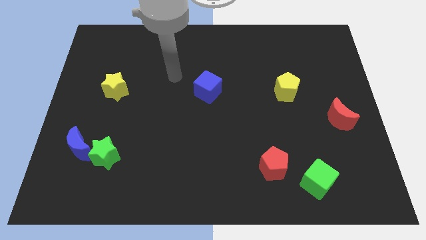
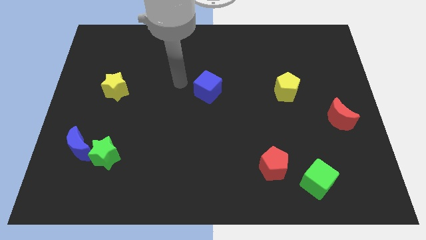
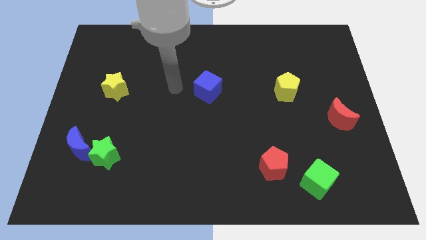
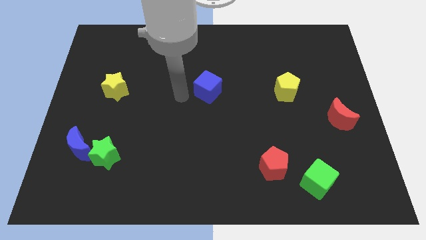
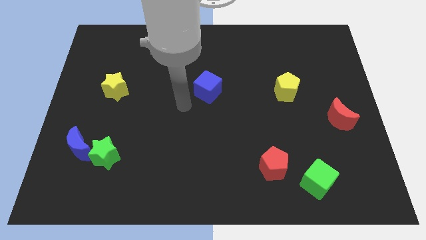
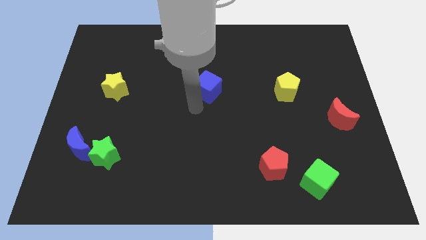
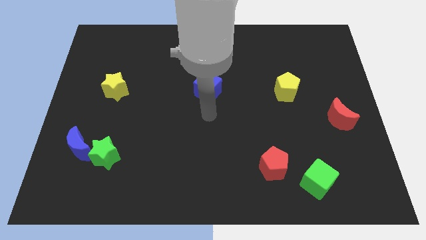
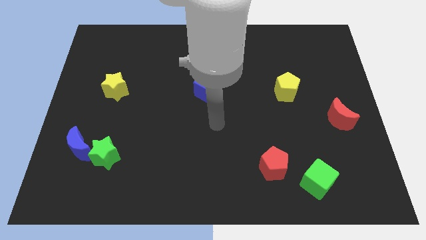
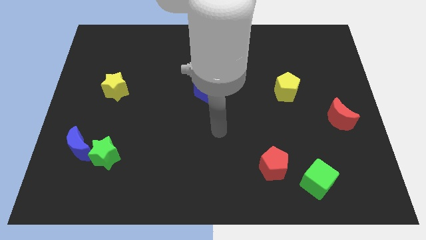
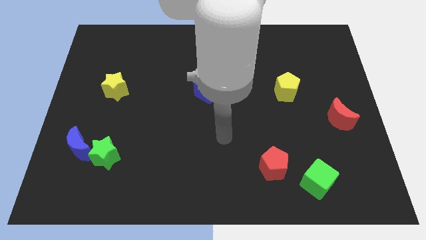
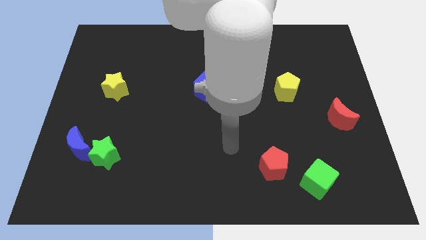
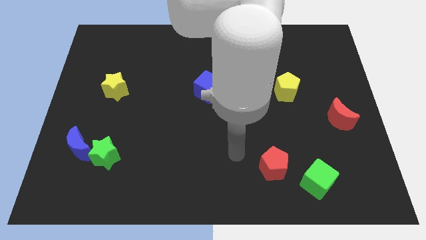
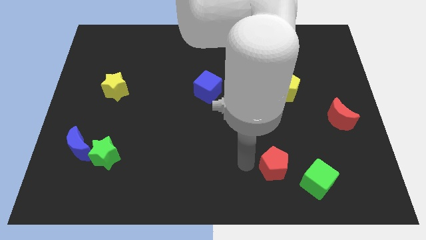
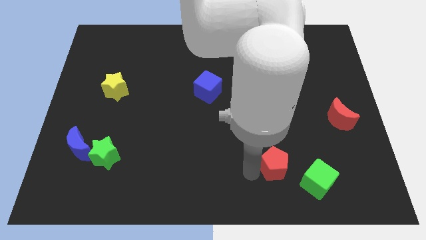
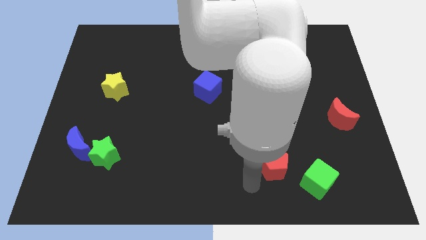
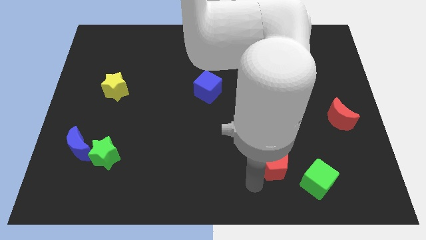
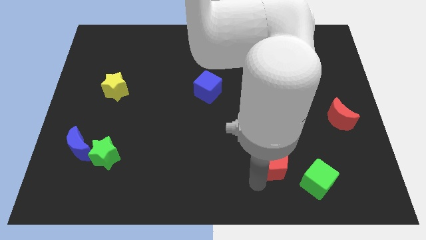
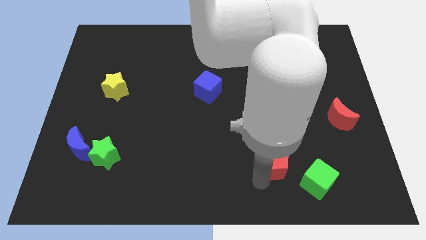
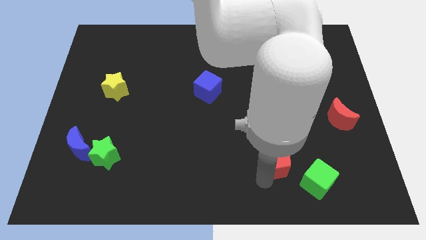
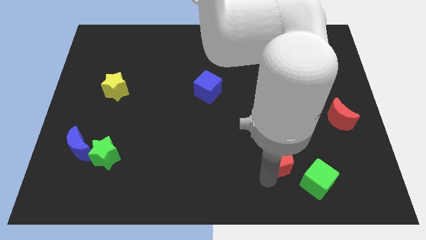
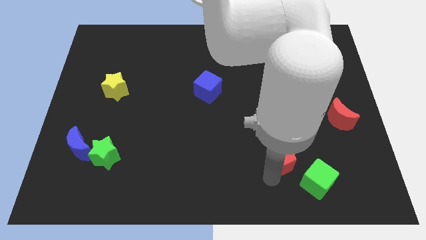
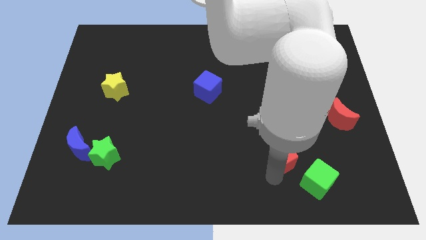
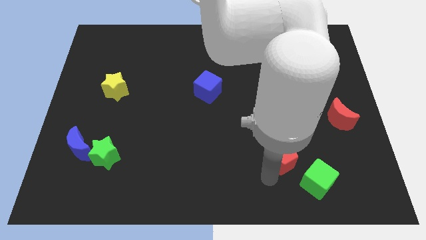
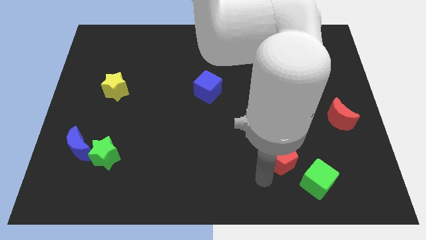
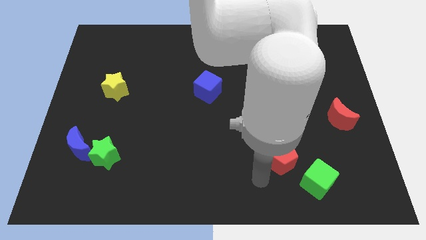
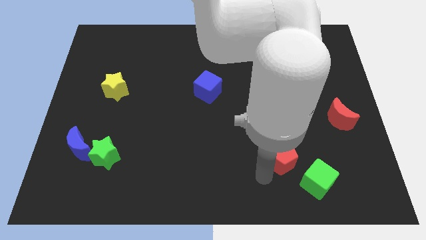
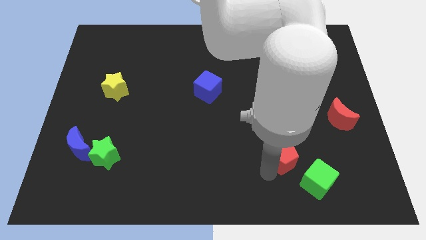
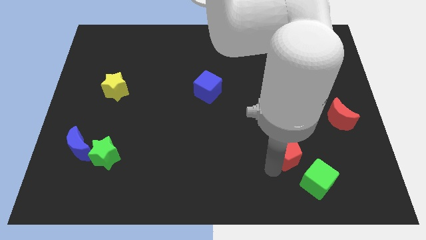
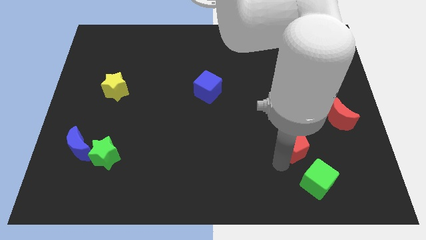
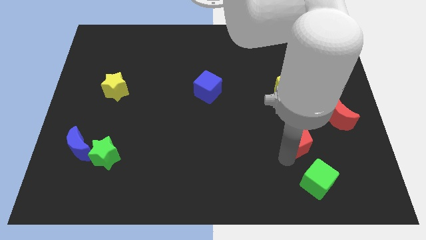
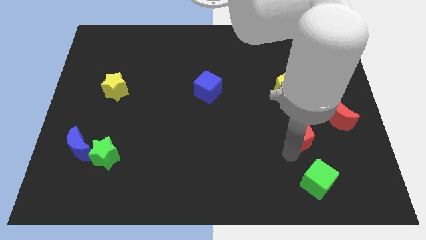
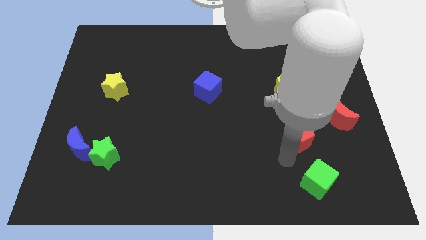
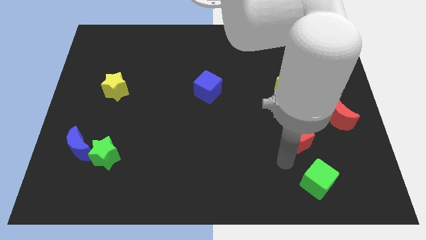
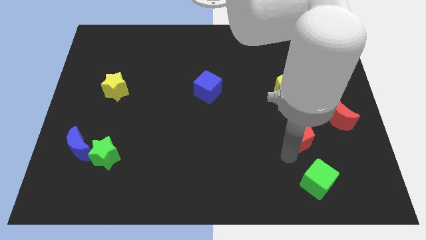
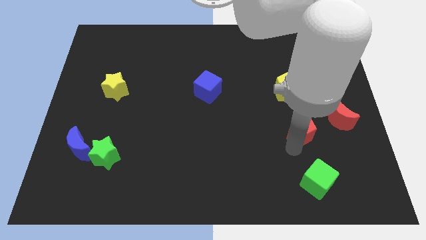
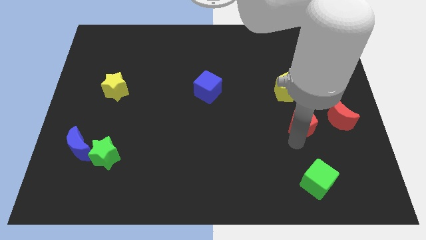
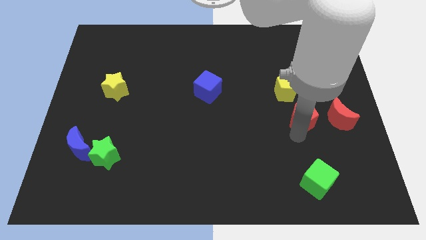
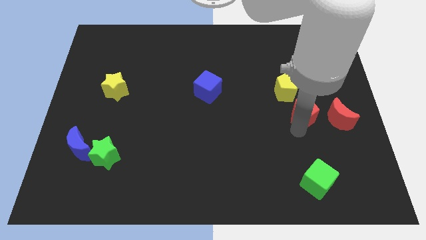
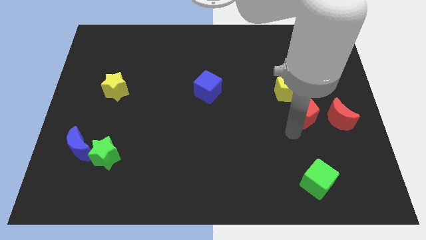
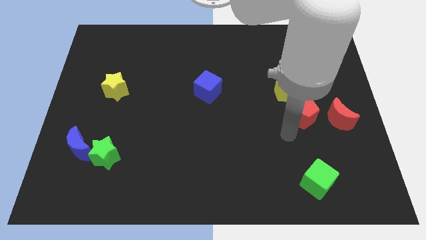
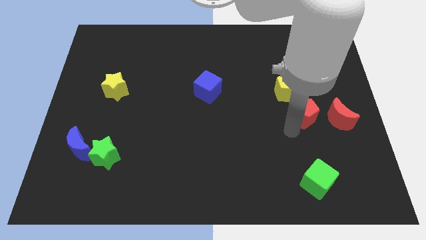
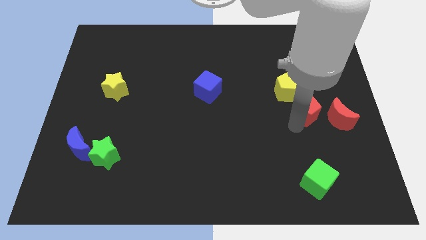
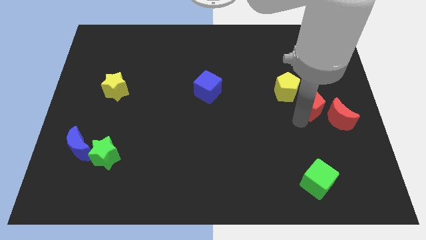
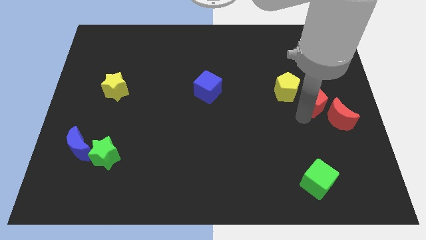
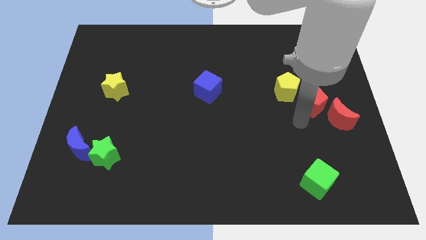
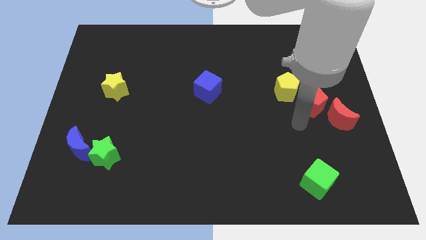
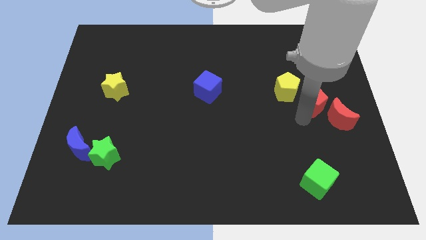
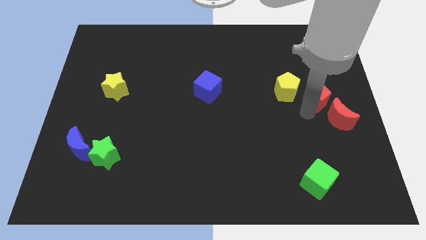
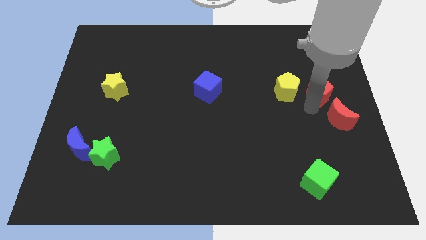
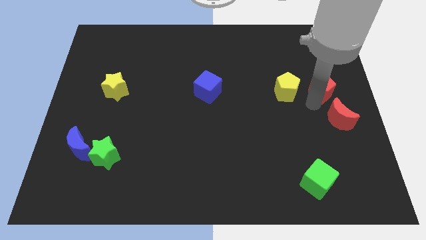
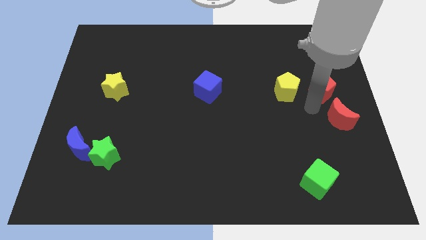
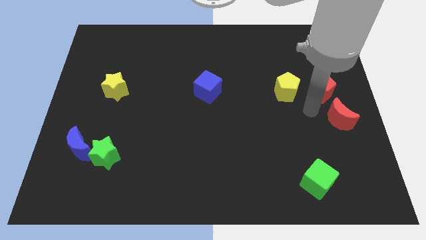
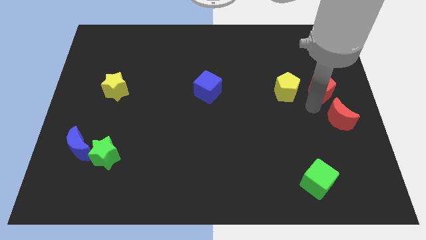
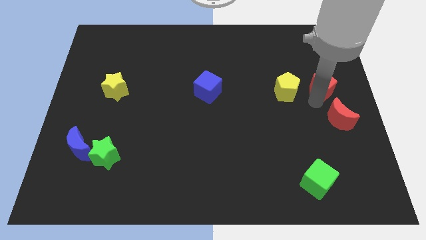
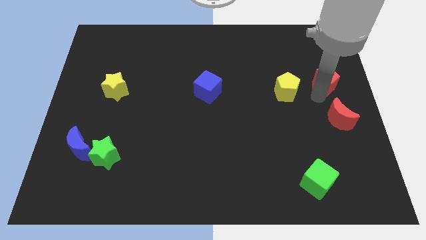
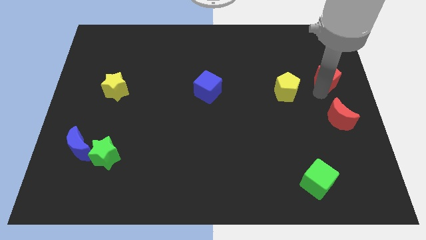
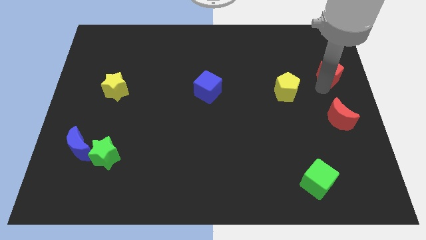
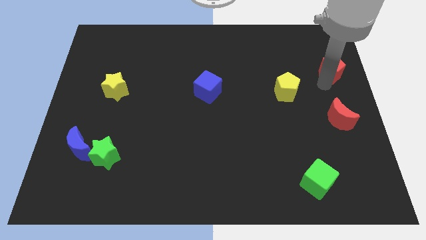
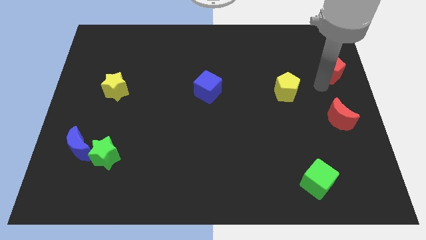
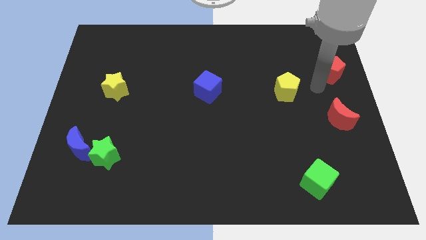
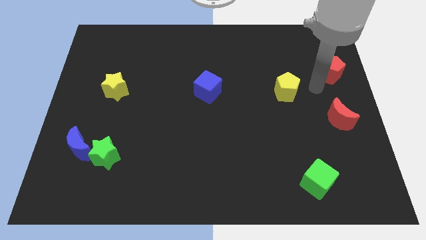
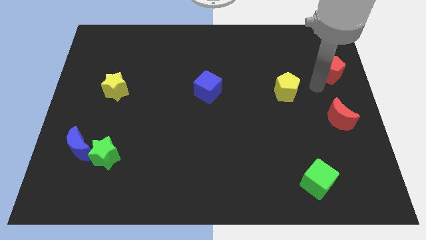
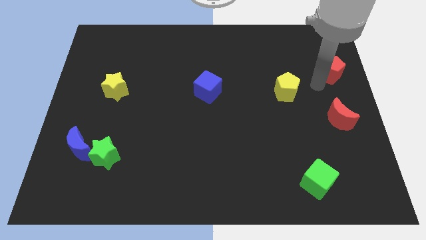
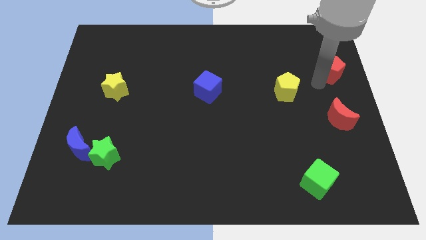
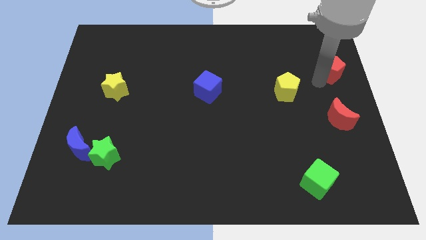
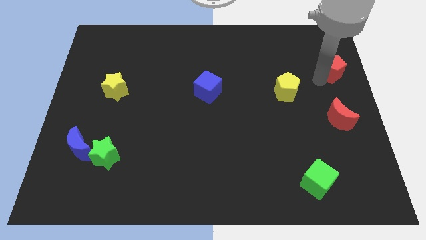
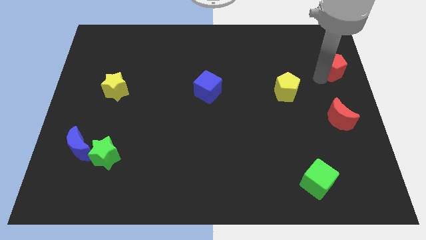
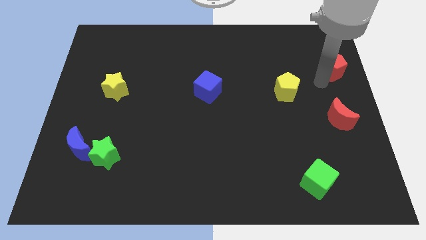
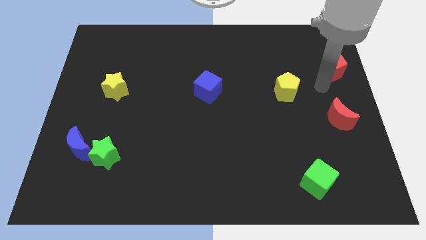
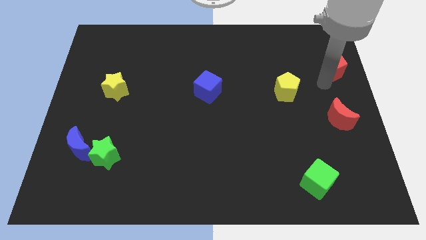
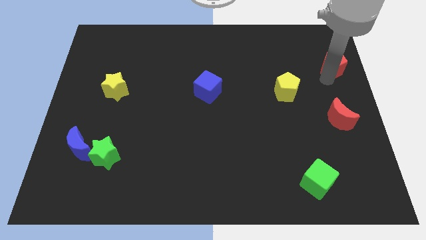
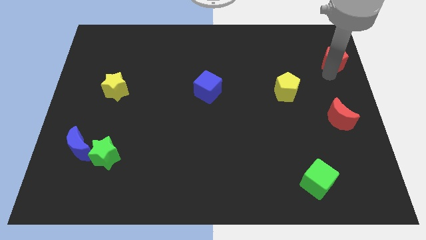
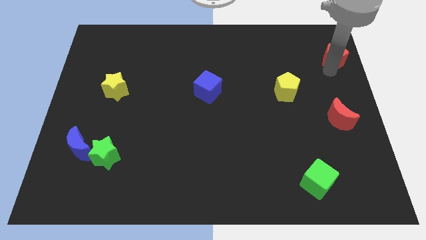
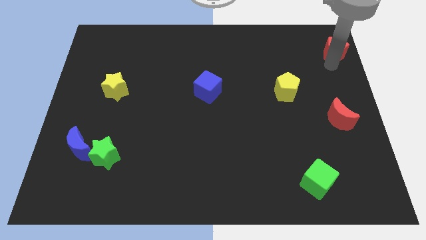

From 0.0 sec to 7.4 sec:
put the red pentagon to the upper right corner
